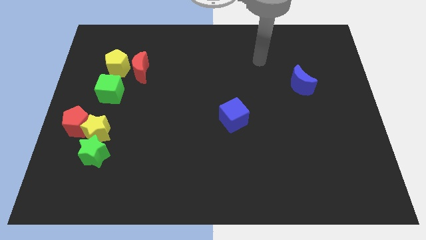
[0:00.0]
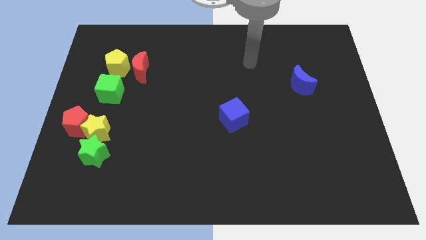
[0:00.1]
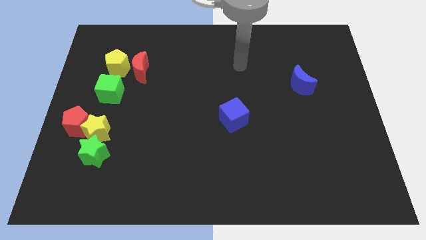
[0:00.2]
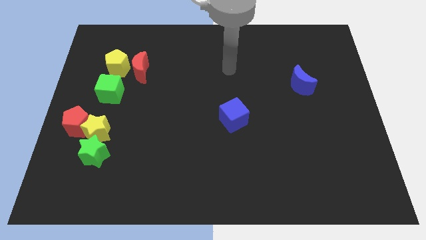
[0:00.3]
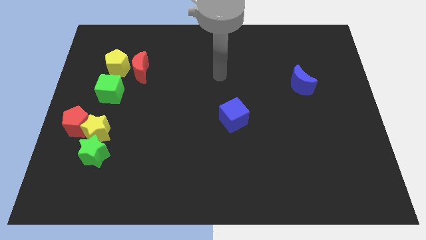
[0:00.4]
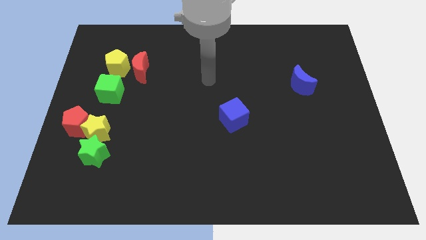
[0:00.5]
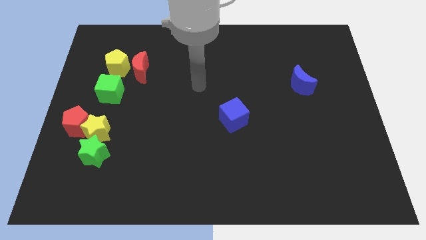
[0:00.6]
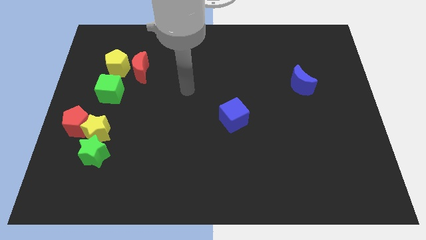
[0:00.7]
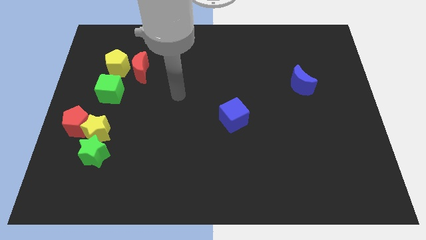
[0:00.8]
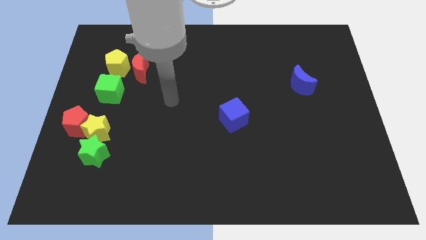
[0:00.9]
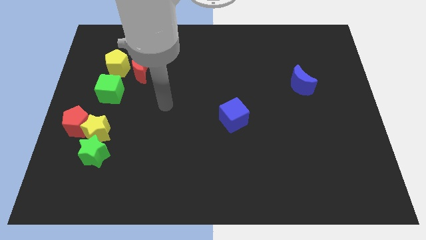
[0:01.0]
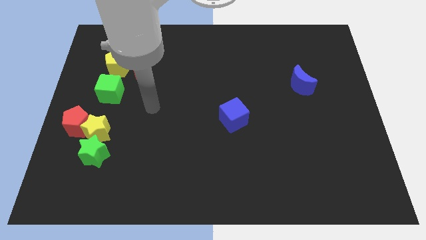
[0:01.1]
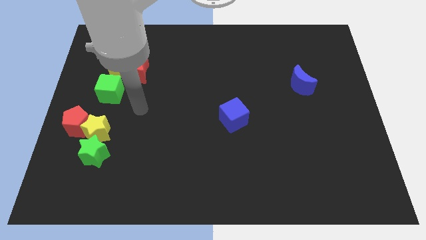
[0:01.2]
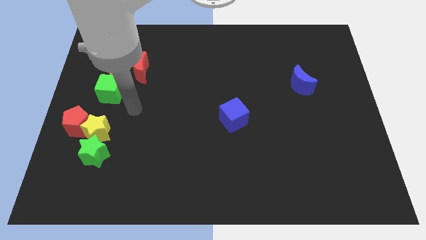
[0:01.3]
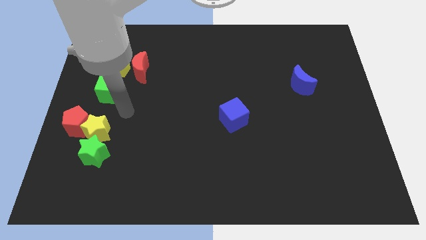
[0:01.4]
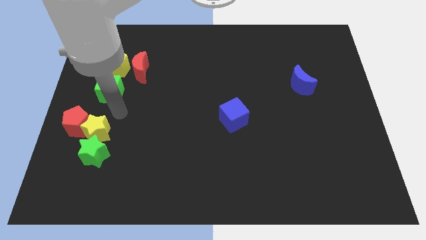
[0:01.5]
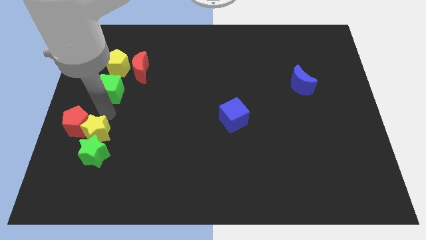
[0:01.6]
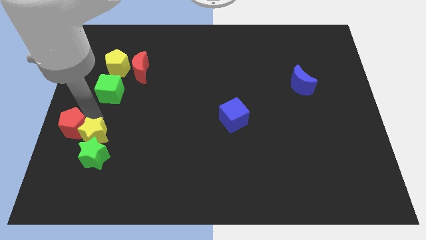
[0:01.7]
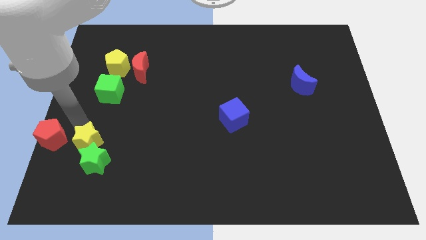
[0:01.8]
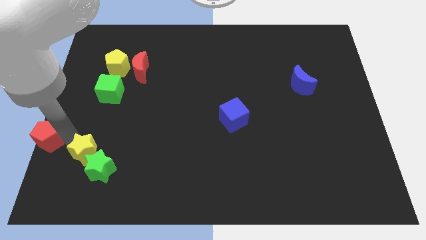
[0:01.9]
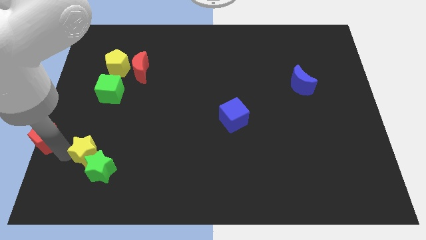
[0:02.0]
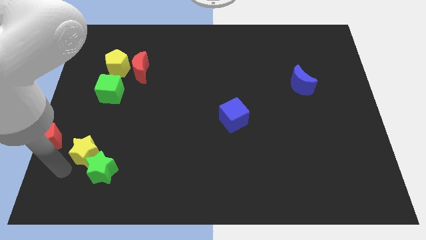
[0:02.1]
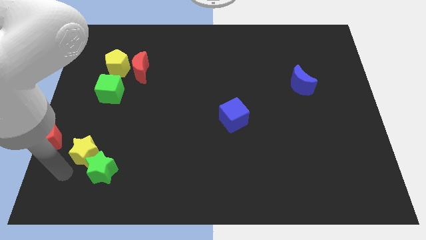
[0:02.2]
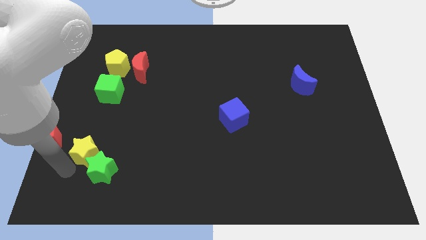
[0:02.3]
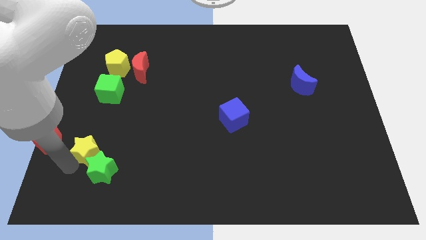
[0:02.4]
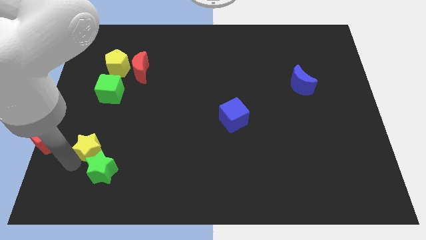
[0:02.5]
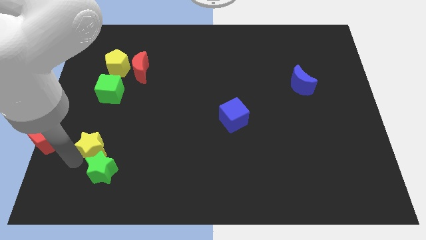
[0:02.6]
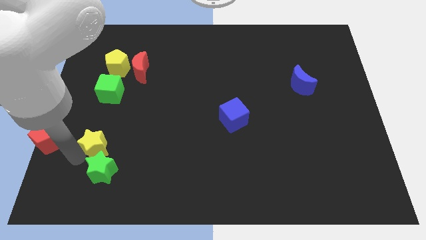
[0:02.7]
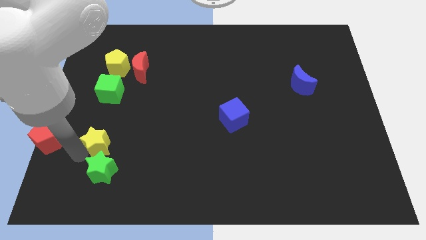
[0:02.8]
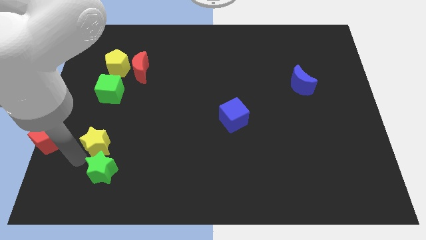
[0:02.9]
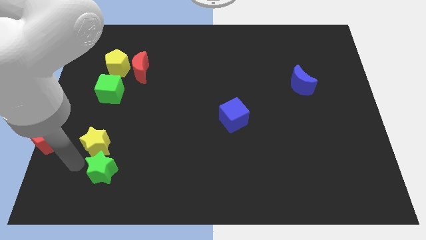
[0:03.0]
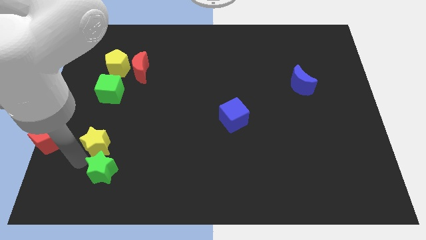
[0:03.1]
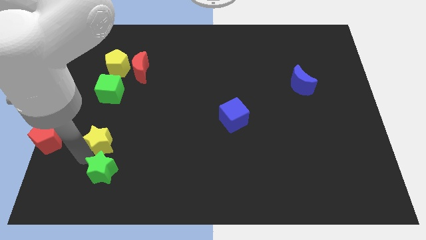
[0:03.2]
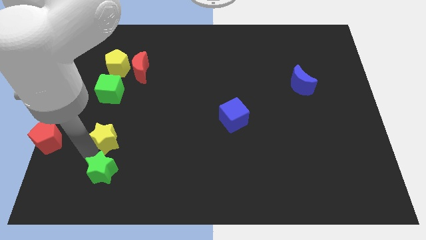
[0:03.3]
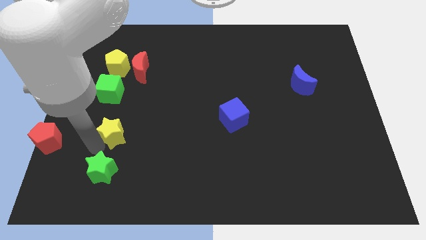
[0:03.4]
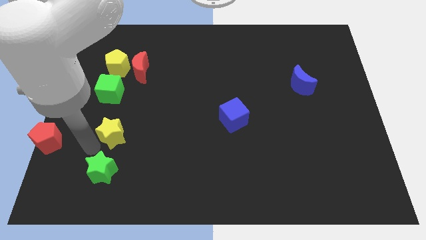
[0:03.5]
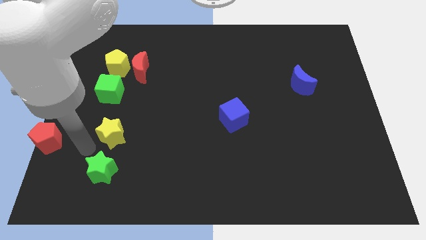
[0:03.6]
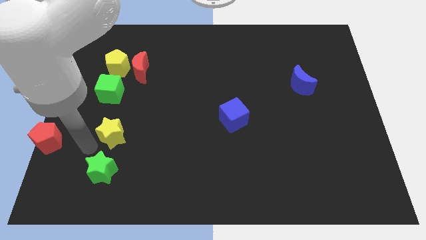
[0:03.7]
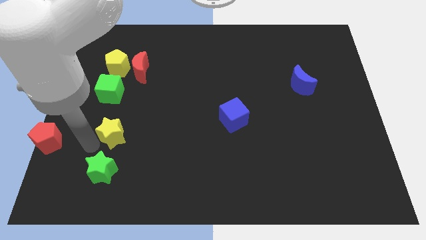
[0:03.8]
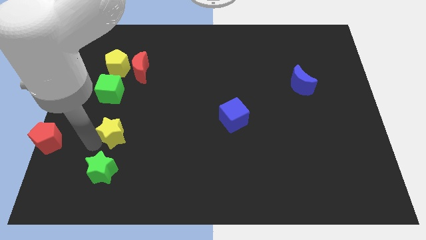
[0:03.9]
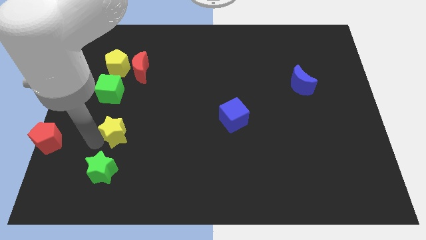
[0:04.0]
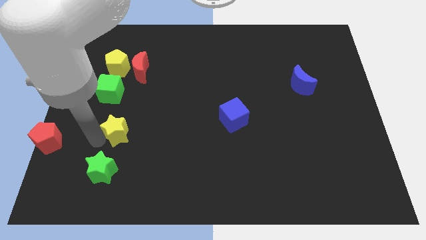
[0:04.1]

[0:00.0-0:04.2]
move the yellow star away from the red pentagon and green star

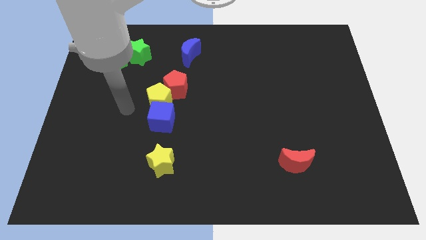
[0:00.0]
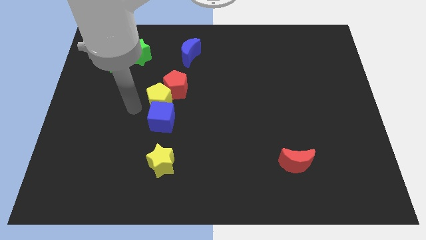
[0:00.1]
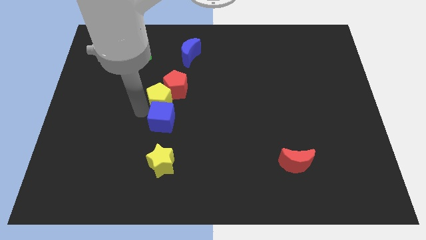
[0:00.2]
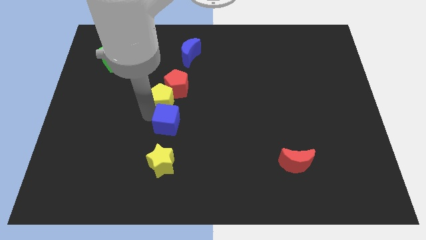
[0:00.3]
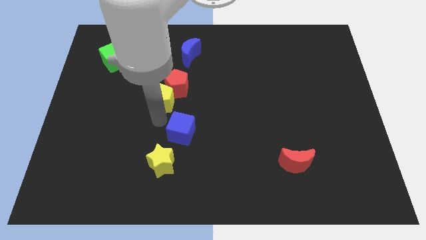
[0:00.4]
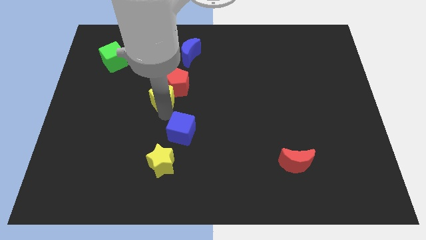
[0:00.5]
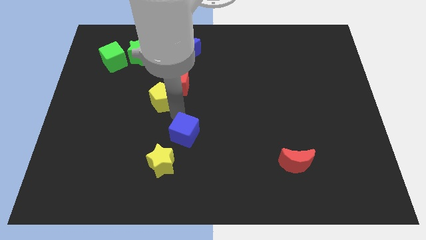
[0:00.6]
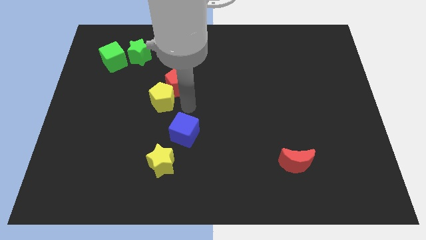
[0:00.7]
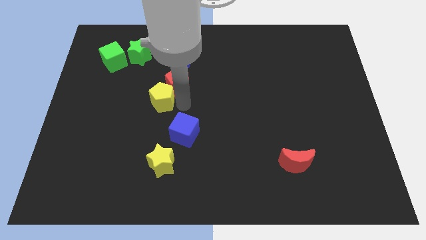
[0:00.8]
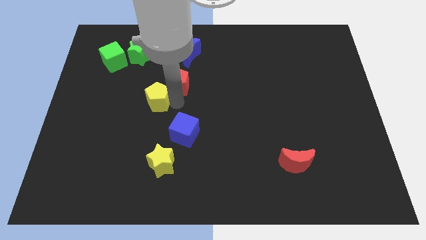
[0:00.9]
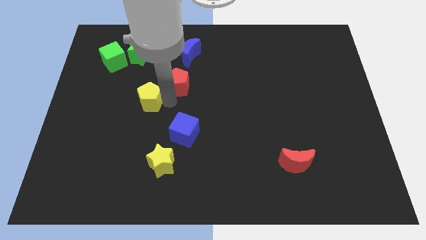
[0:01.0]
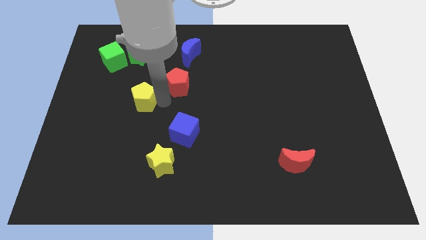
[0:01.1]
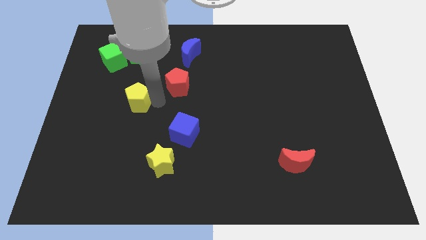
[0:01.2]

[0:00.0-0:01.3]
pull the yellow pentagon apart from the red pentagon and blue cube

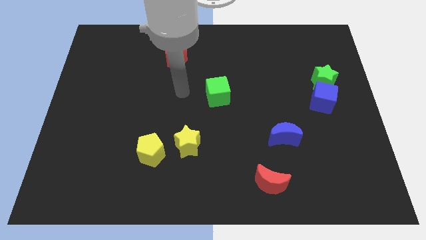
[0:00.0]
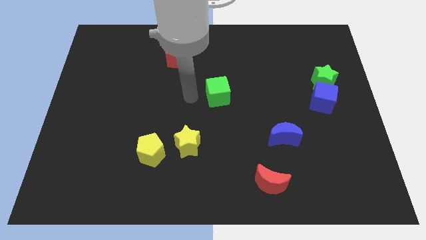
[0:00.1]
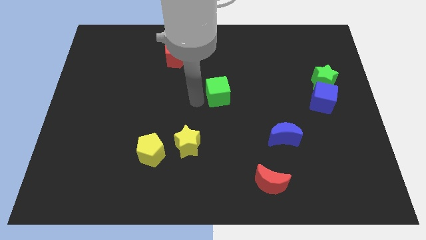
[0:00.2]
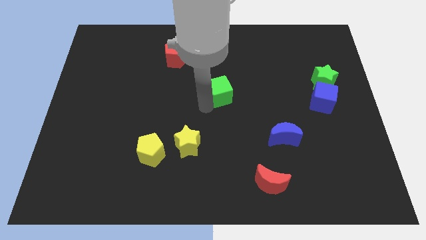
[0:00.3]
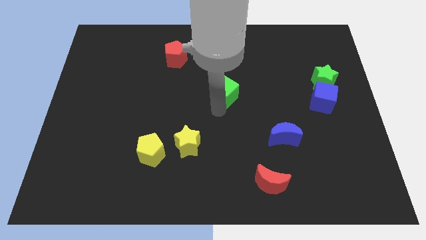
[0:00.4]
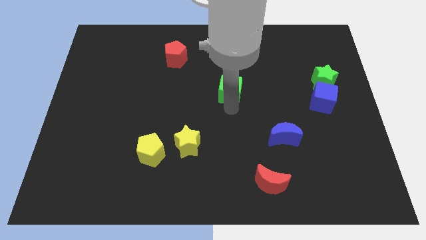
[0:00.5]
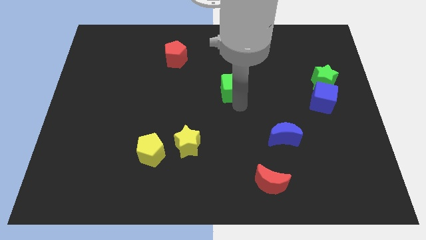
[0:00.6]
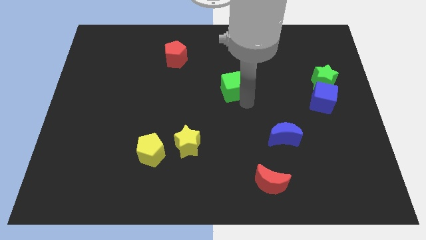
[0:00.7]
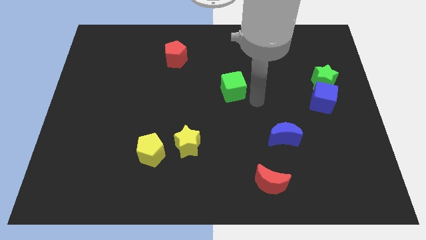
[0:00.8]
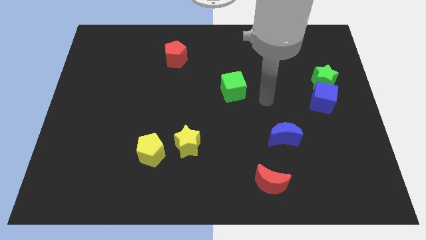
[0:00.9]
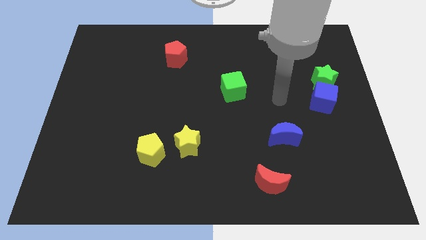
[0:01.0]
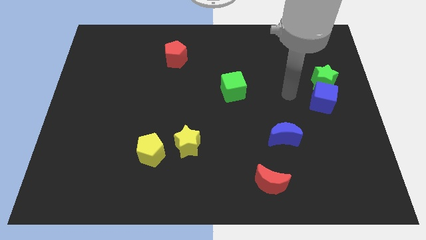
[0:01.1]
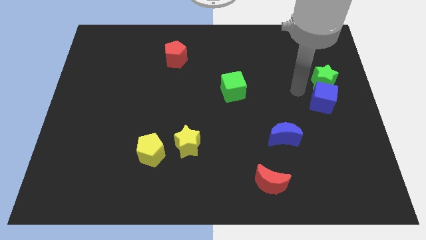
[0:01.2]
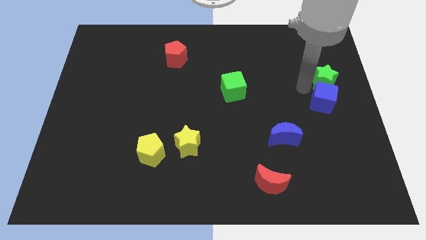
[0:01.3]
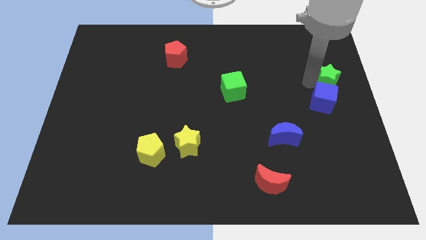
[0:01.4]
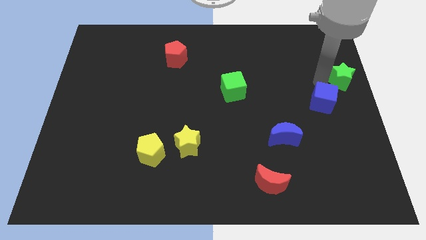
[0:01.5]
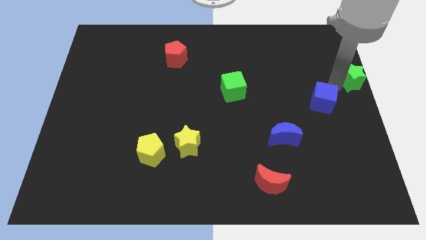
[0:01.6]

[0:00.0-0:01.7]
pull the blue cube apart from the green star

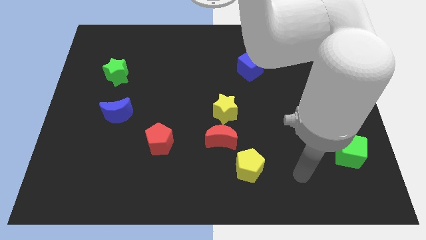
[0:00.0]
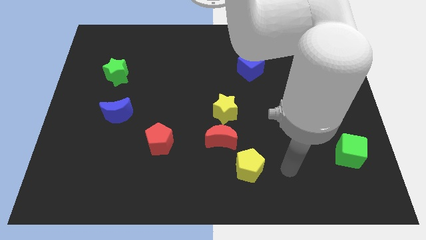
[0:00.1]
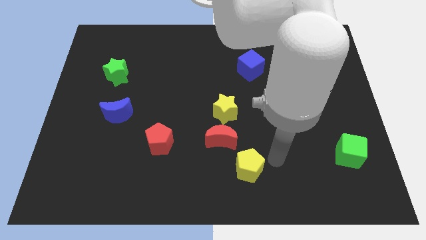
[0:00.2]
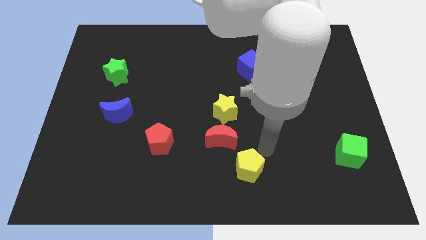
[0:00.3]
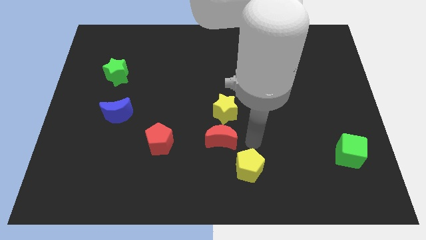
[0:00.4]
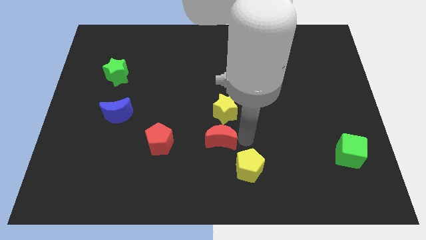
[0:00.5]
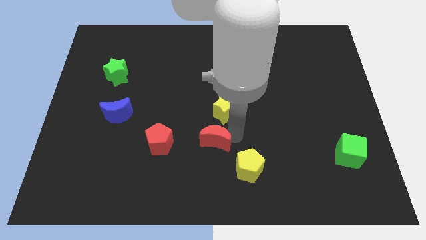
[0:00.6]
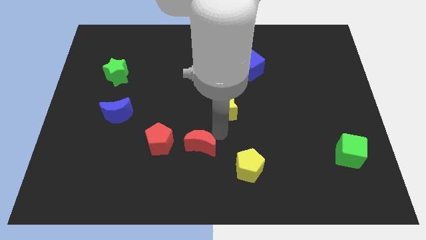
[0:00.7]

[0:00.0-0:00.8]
move the yellow star away from the red moon

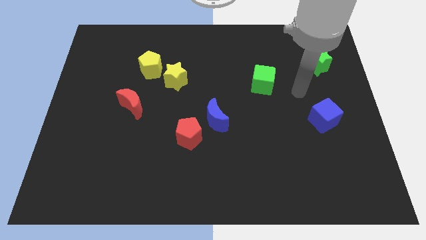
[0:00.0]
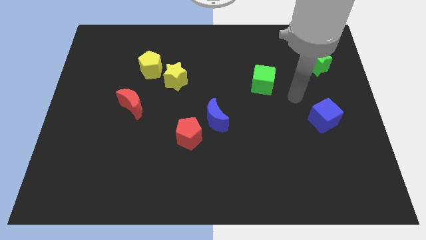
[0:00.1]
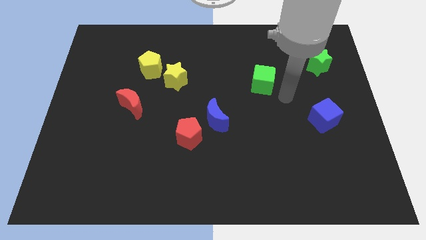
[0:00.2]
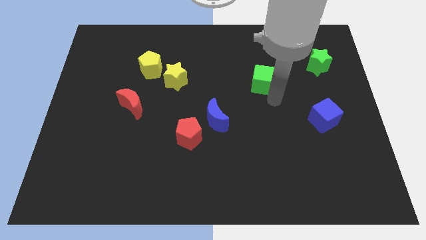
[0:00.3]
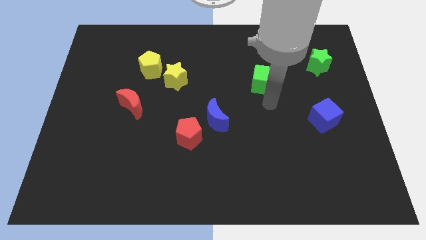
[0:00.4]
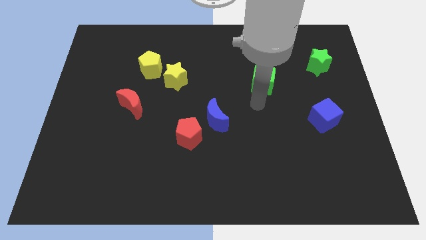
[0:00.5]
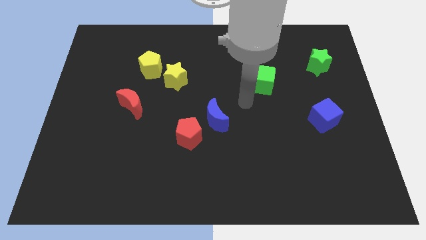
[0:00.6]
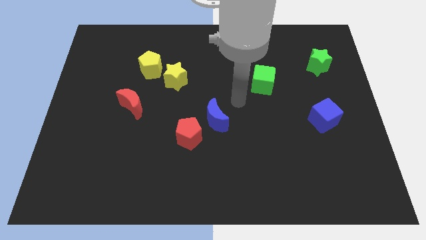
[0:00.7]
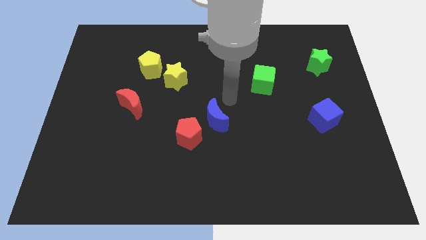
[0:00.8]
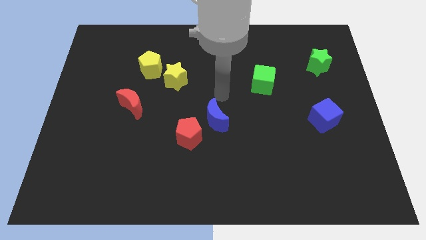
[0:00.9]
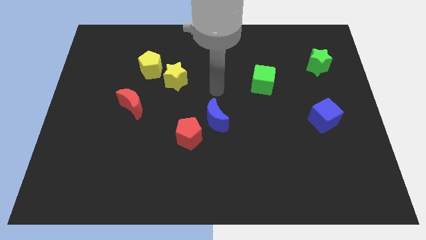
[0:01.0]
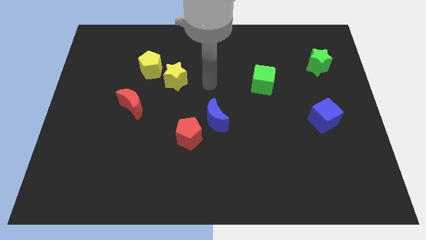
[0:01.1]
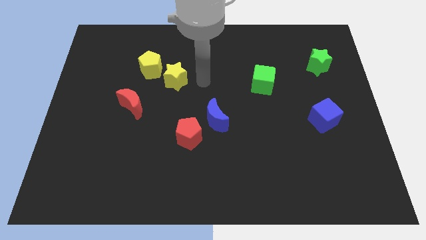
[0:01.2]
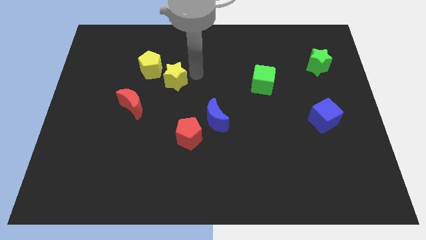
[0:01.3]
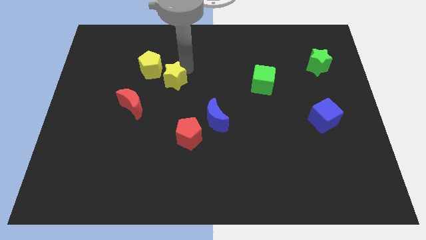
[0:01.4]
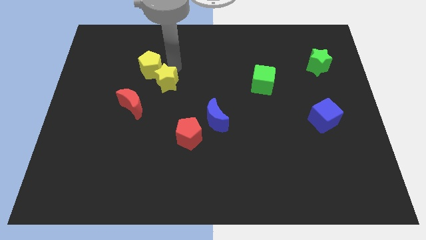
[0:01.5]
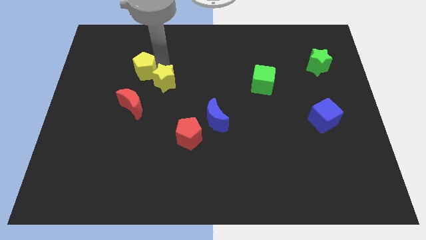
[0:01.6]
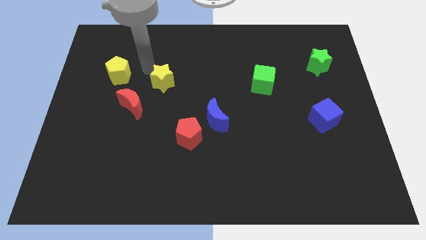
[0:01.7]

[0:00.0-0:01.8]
pull the yellow star apart from the yellow pentagon
